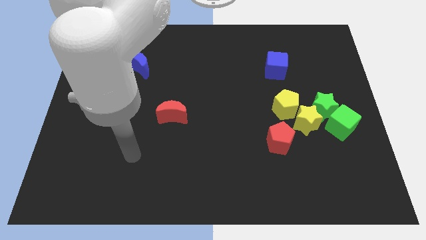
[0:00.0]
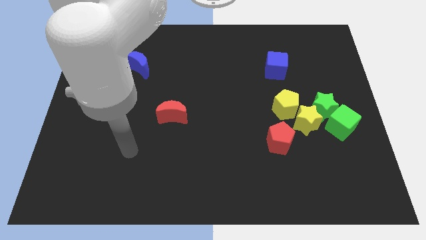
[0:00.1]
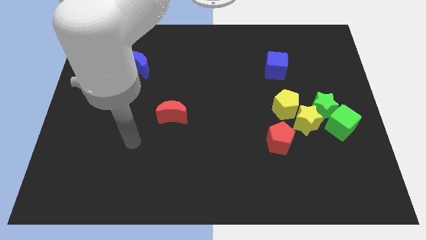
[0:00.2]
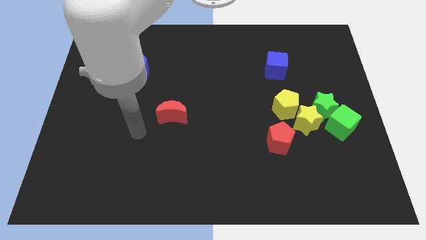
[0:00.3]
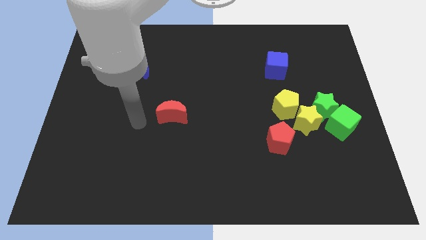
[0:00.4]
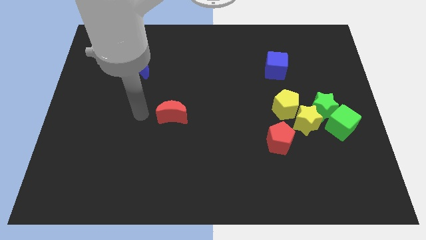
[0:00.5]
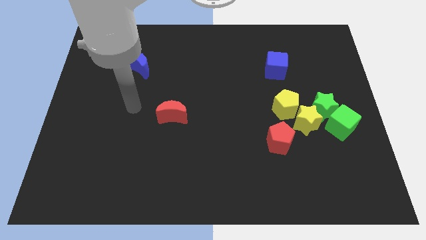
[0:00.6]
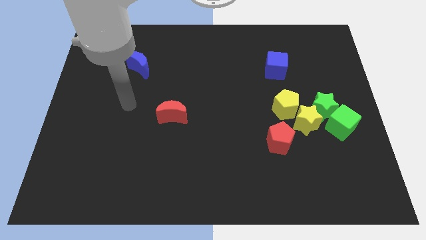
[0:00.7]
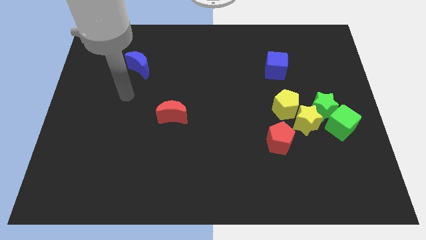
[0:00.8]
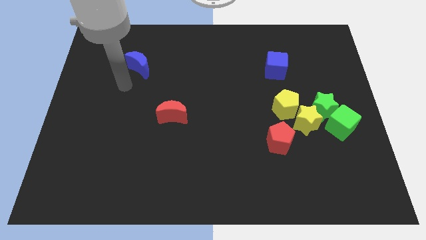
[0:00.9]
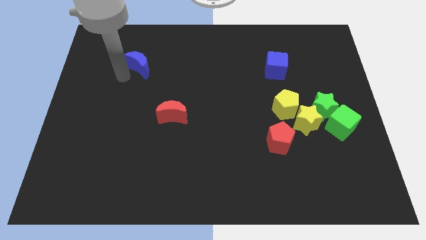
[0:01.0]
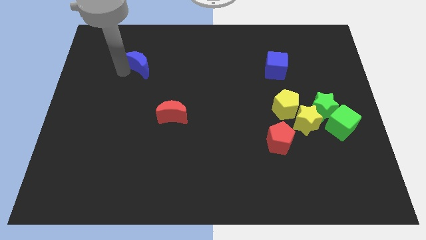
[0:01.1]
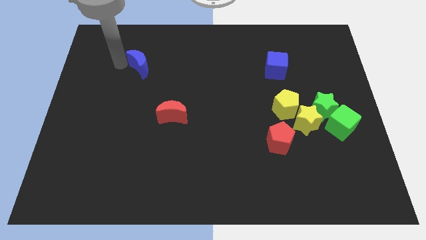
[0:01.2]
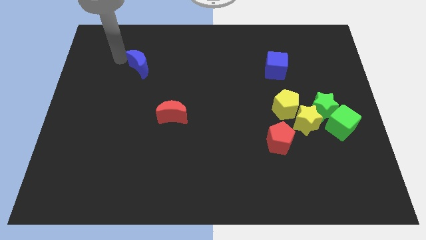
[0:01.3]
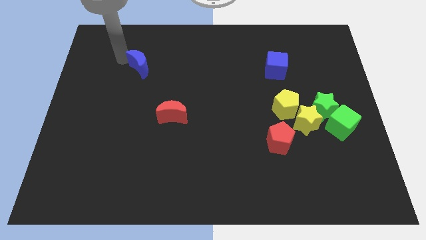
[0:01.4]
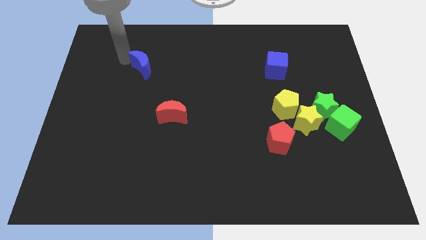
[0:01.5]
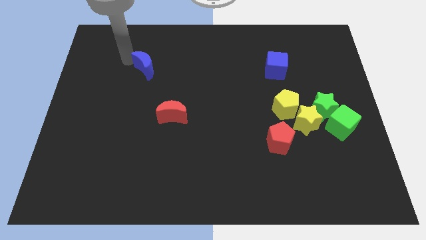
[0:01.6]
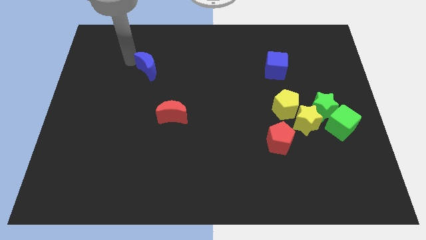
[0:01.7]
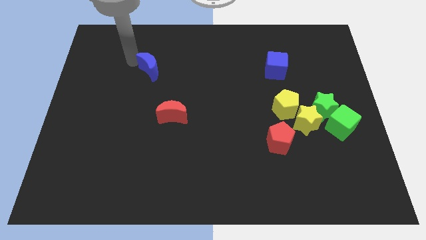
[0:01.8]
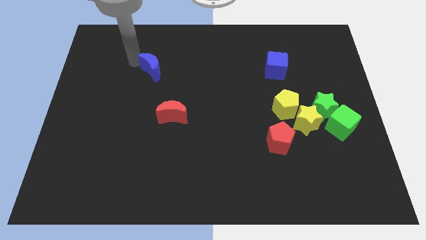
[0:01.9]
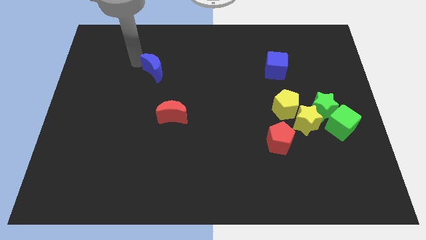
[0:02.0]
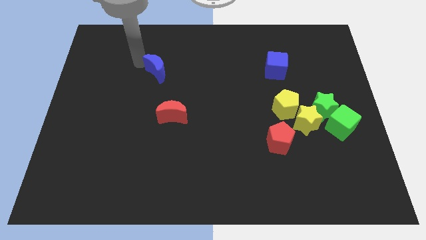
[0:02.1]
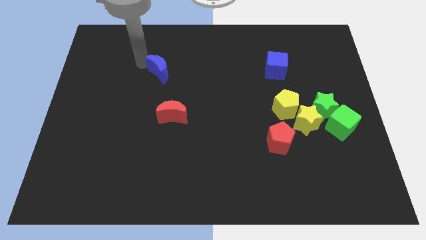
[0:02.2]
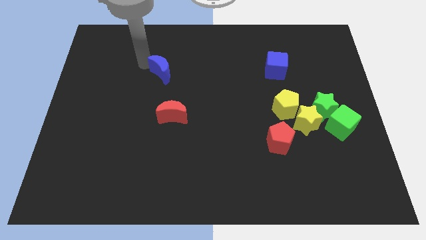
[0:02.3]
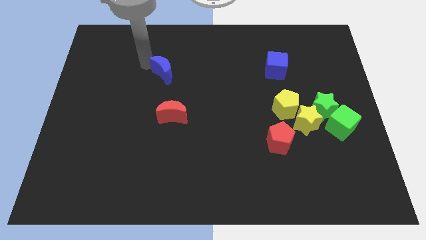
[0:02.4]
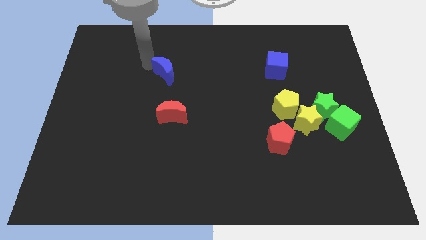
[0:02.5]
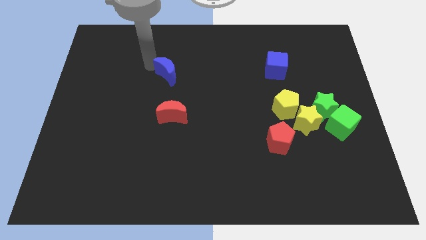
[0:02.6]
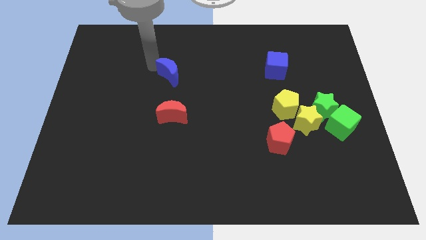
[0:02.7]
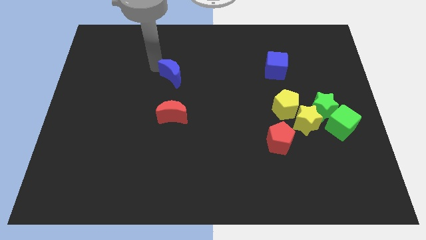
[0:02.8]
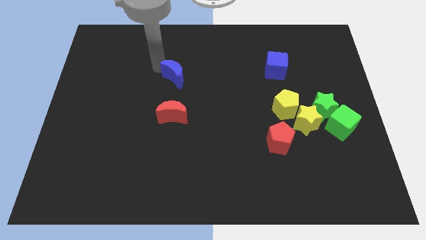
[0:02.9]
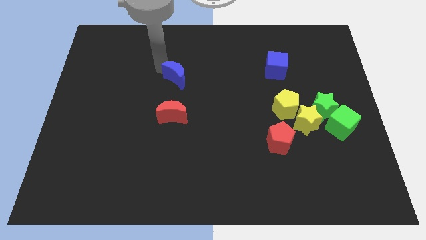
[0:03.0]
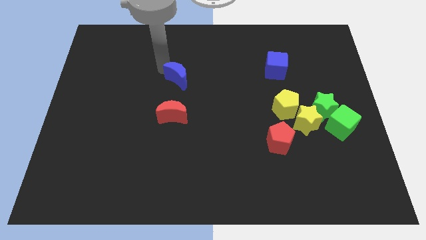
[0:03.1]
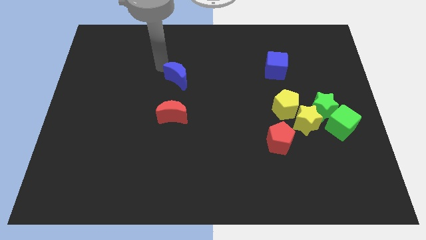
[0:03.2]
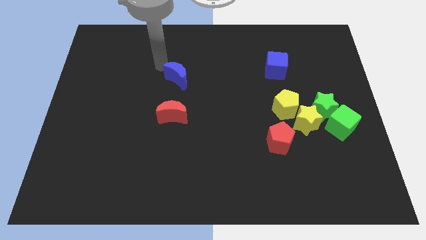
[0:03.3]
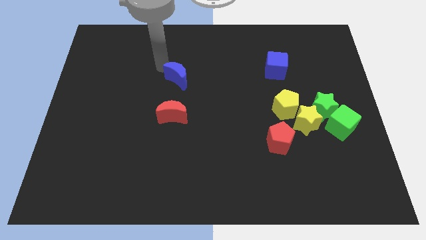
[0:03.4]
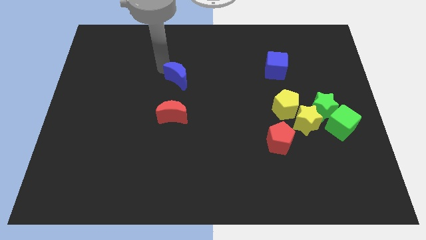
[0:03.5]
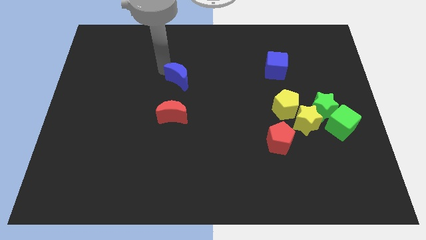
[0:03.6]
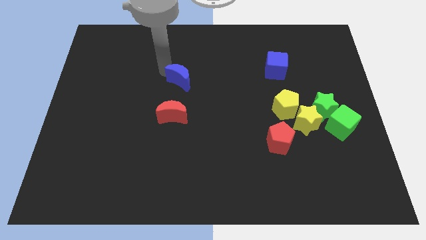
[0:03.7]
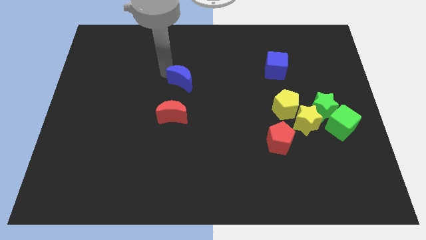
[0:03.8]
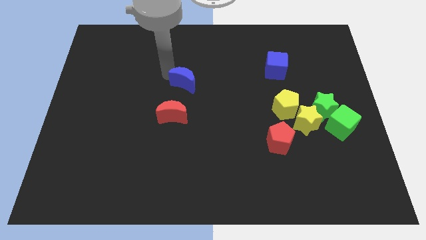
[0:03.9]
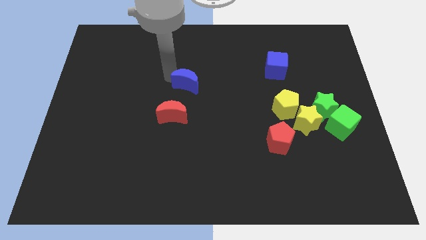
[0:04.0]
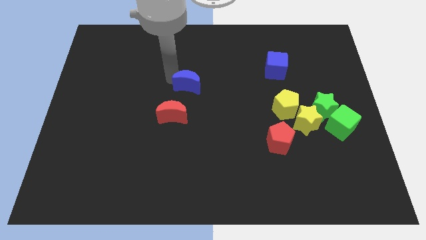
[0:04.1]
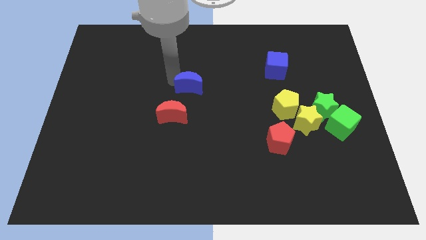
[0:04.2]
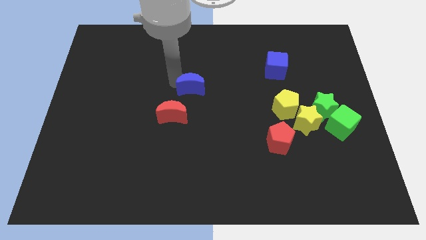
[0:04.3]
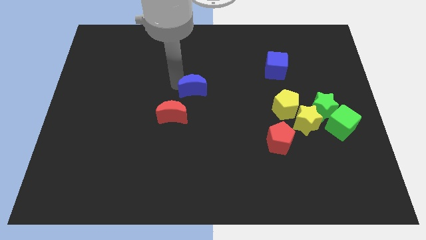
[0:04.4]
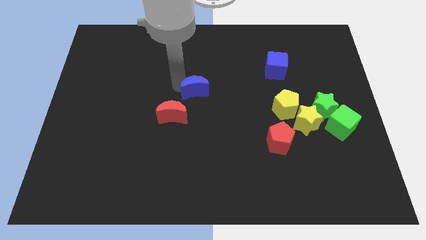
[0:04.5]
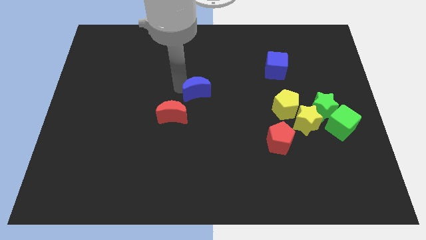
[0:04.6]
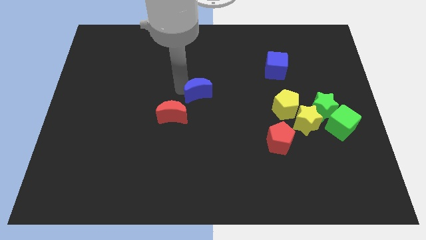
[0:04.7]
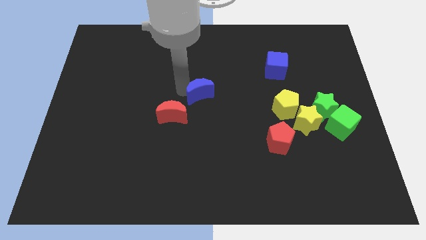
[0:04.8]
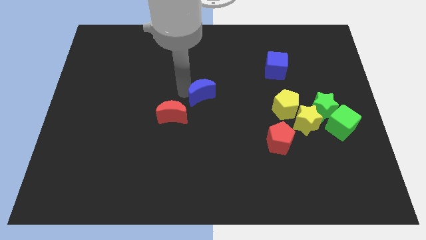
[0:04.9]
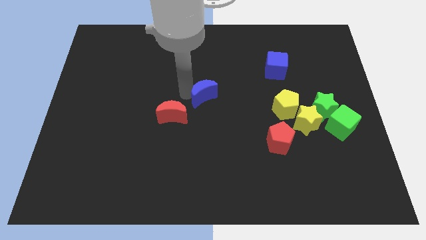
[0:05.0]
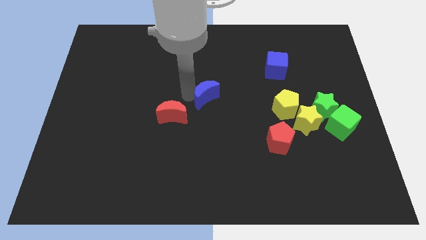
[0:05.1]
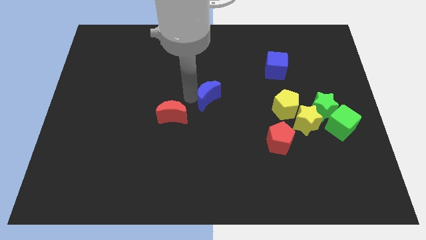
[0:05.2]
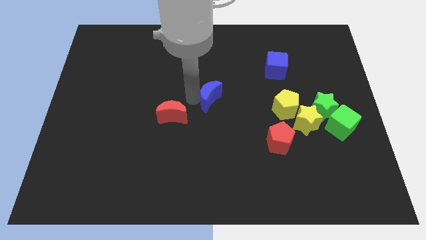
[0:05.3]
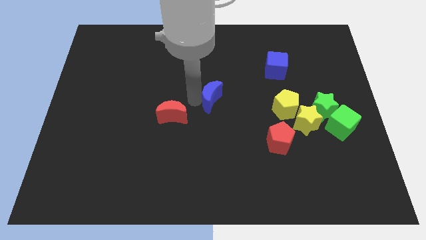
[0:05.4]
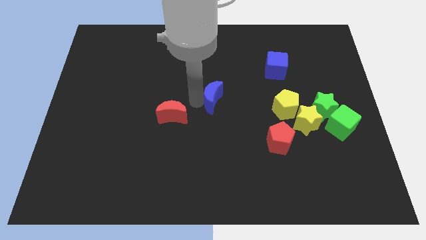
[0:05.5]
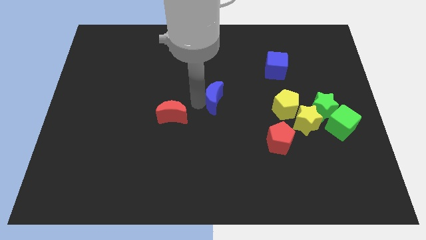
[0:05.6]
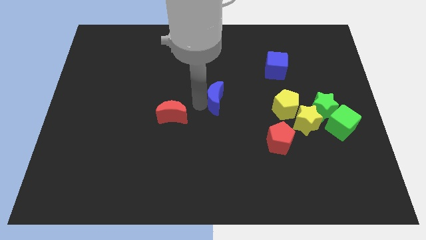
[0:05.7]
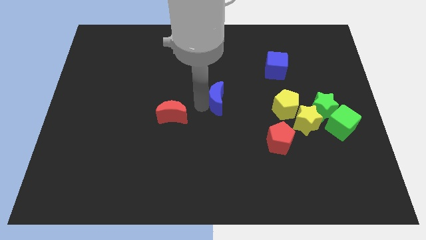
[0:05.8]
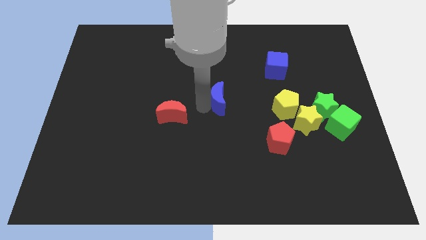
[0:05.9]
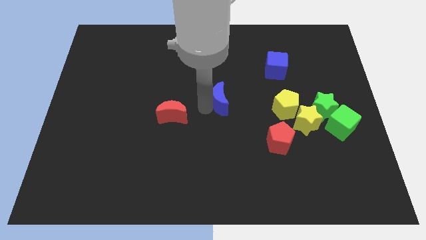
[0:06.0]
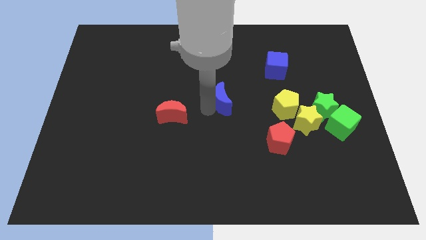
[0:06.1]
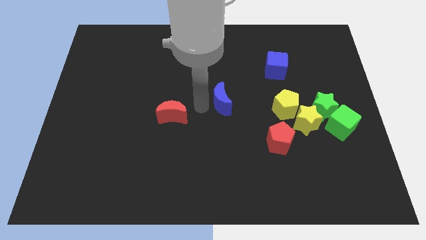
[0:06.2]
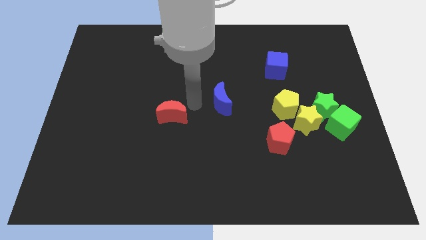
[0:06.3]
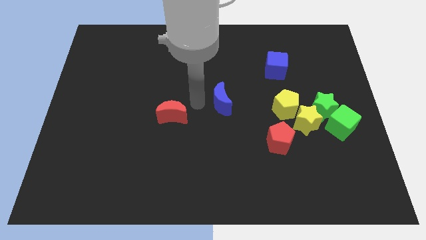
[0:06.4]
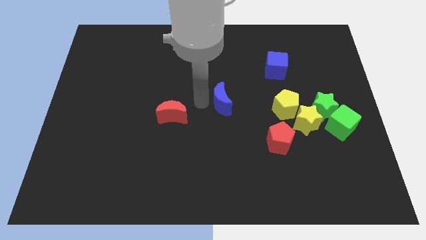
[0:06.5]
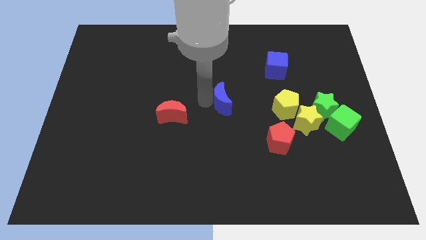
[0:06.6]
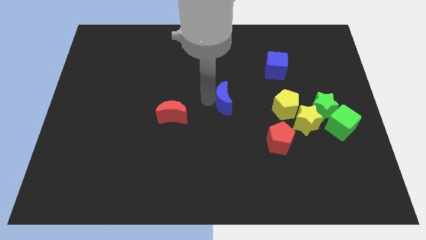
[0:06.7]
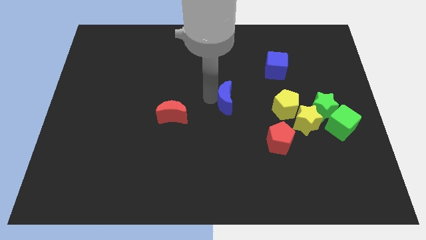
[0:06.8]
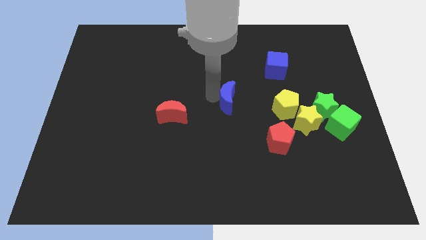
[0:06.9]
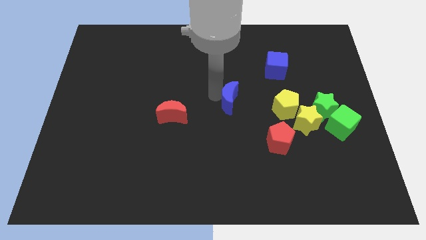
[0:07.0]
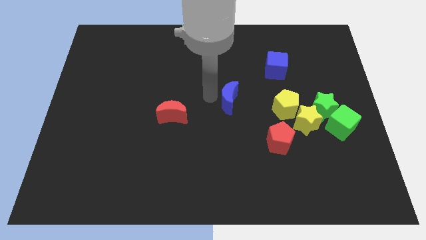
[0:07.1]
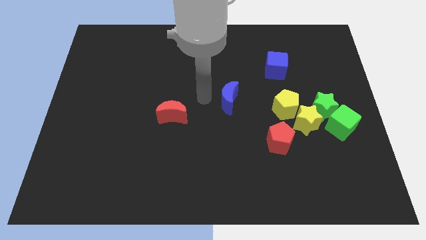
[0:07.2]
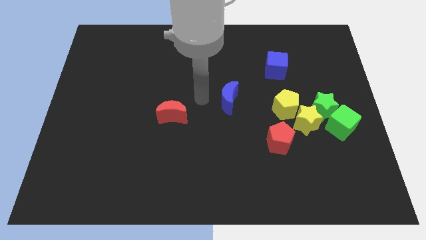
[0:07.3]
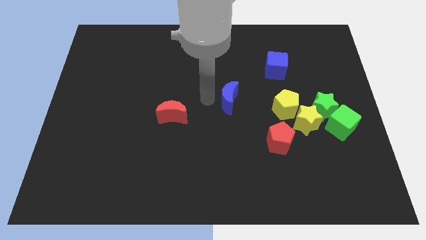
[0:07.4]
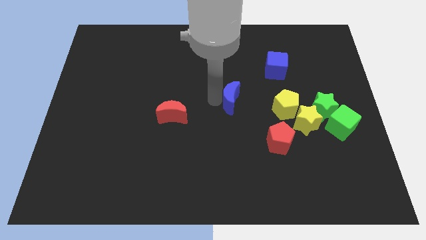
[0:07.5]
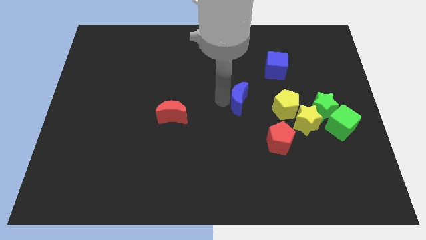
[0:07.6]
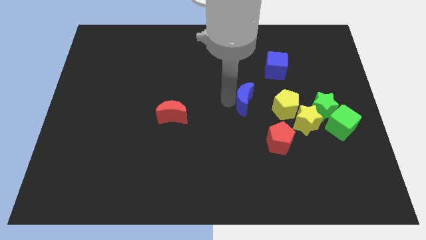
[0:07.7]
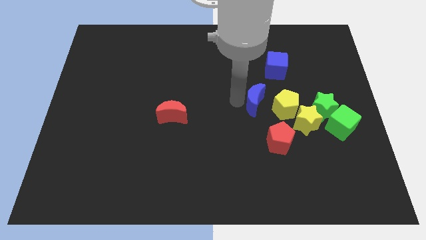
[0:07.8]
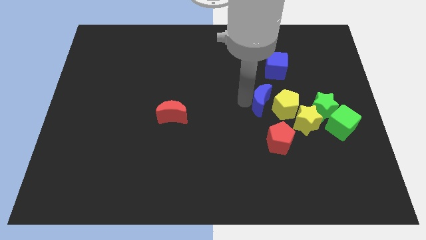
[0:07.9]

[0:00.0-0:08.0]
push the blue moon towards the yellow pentagon
